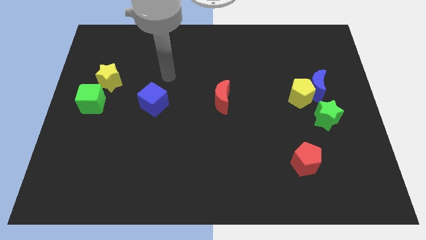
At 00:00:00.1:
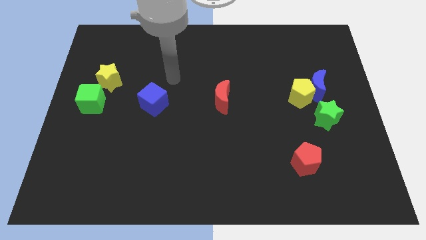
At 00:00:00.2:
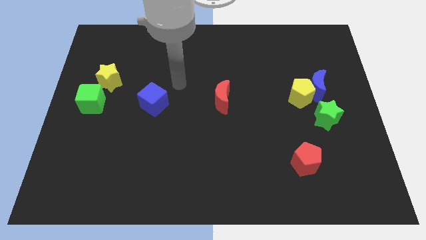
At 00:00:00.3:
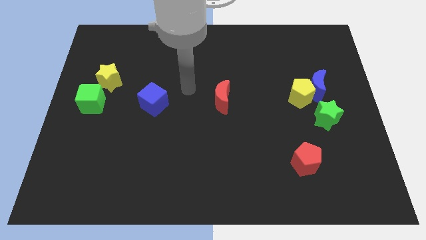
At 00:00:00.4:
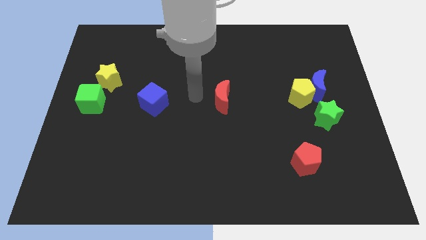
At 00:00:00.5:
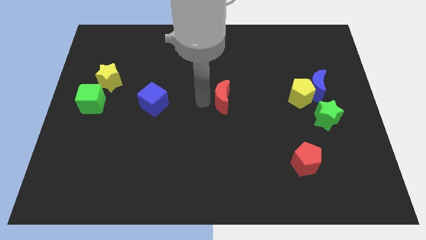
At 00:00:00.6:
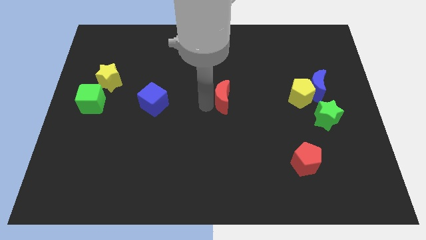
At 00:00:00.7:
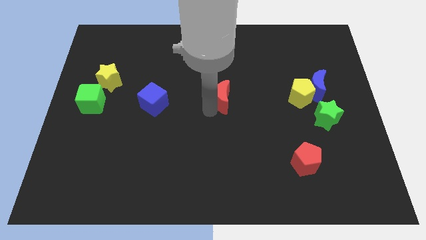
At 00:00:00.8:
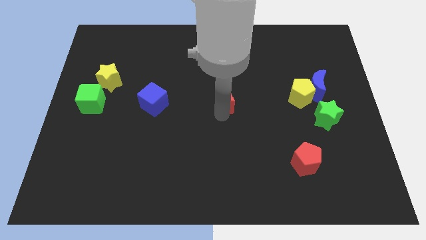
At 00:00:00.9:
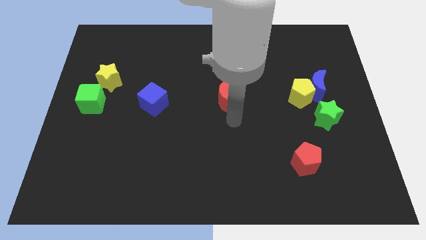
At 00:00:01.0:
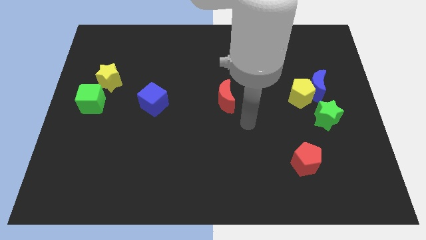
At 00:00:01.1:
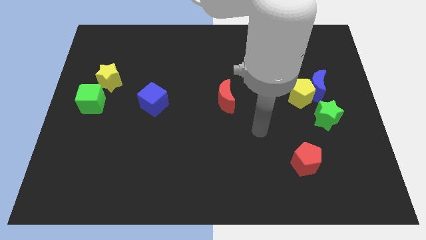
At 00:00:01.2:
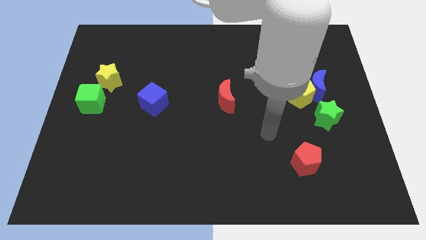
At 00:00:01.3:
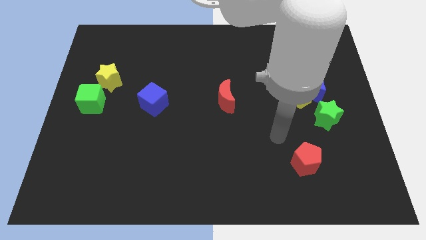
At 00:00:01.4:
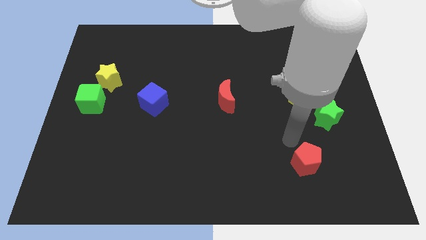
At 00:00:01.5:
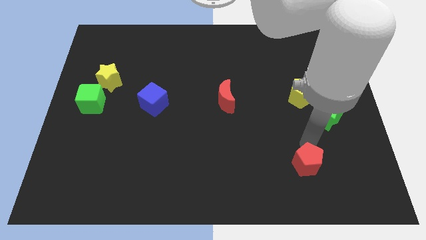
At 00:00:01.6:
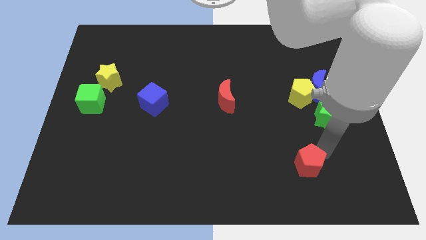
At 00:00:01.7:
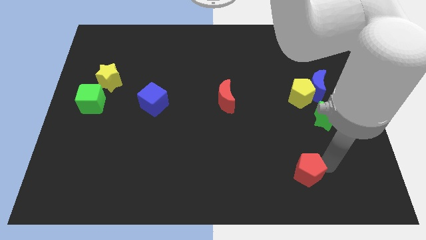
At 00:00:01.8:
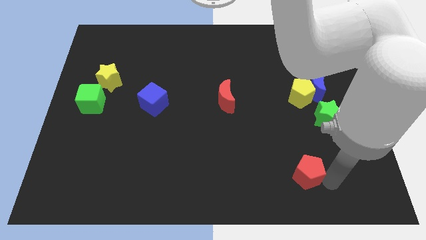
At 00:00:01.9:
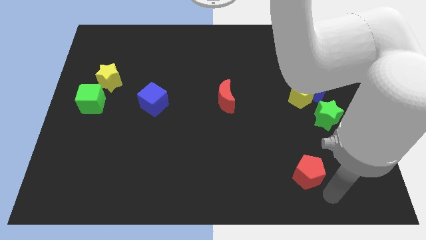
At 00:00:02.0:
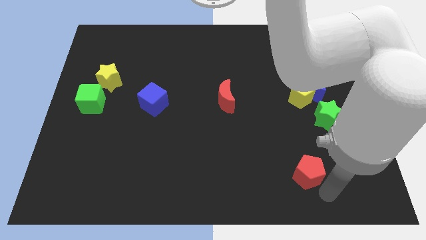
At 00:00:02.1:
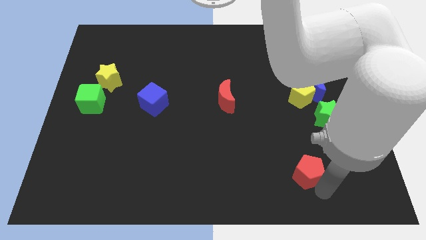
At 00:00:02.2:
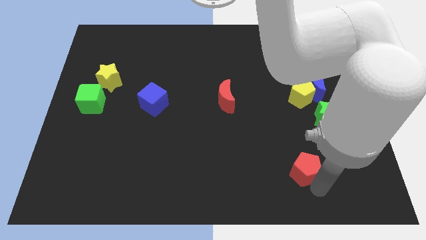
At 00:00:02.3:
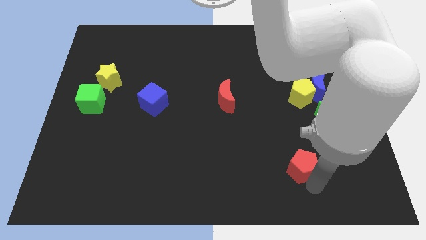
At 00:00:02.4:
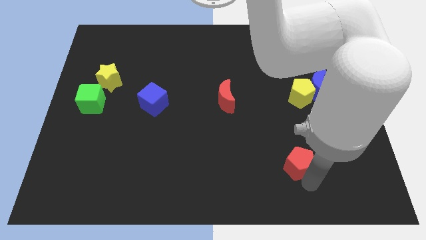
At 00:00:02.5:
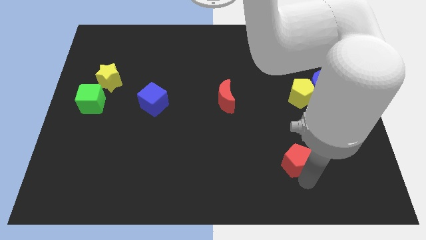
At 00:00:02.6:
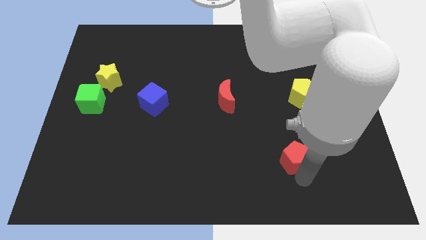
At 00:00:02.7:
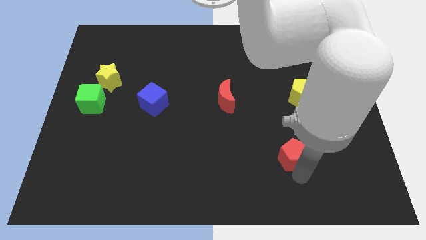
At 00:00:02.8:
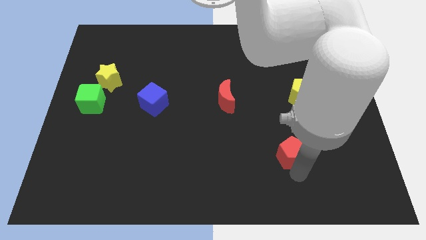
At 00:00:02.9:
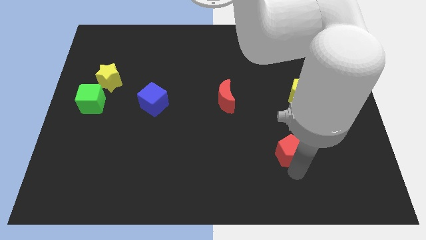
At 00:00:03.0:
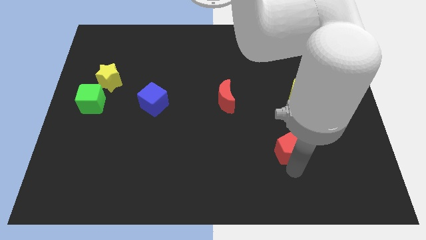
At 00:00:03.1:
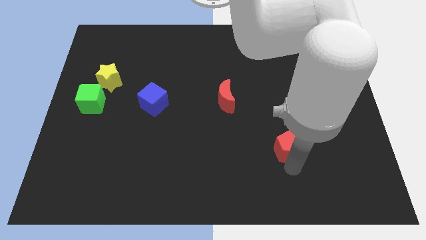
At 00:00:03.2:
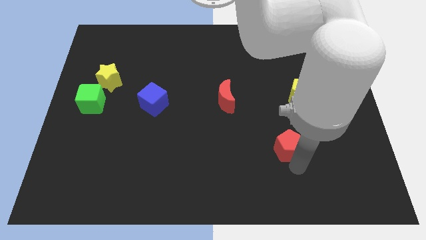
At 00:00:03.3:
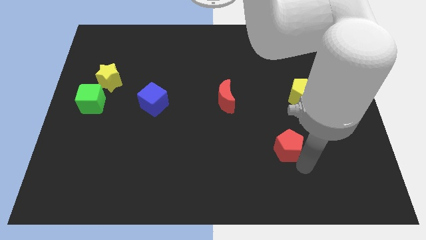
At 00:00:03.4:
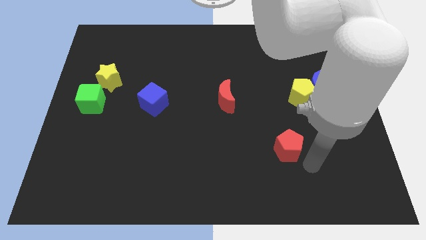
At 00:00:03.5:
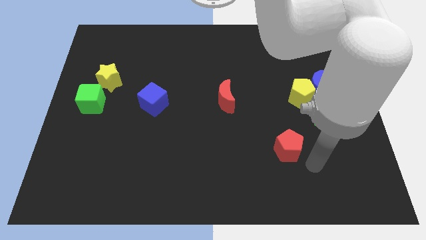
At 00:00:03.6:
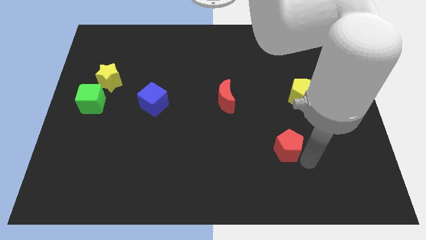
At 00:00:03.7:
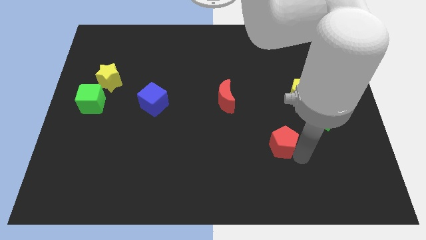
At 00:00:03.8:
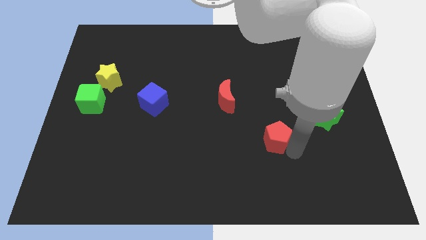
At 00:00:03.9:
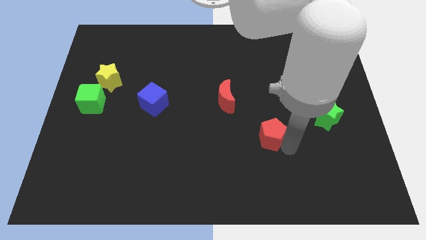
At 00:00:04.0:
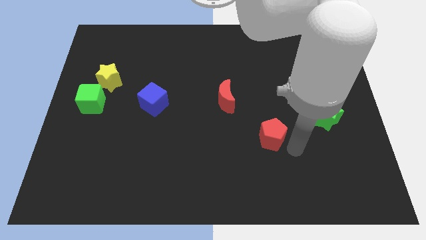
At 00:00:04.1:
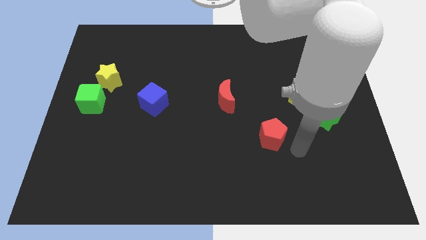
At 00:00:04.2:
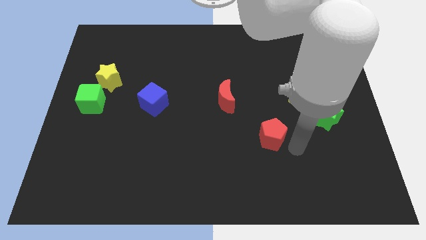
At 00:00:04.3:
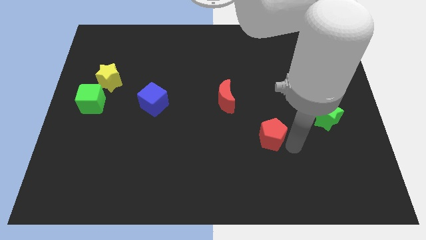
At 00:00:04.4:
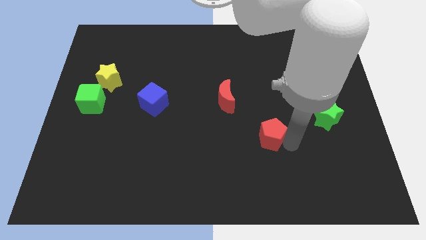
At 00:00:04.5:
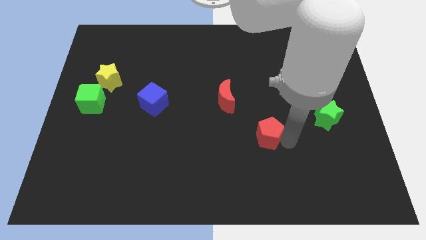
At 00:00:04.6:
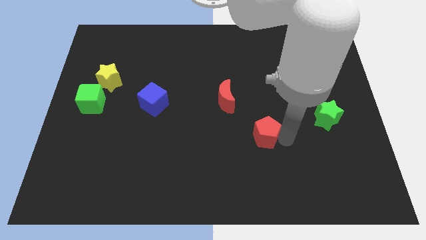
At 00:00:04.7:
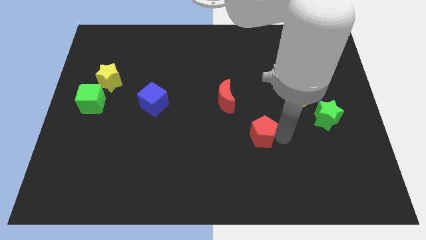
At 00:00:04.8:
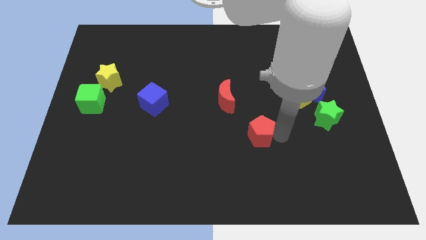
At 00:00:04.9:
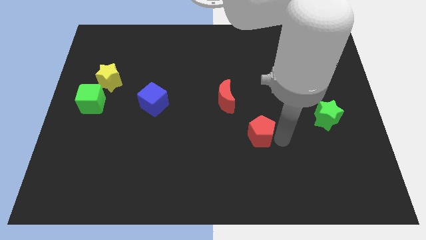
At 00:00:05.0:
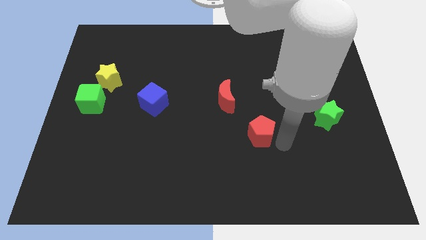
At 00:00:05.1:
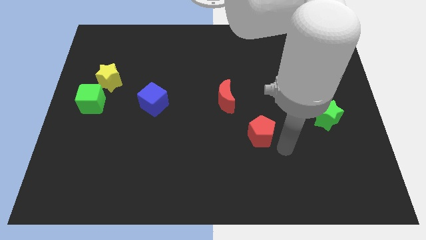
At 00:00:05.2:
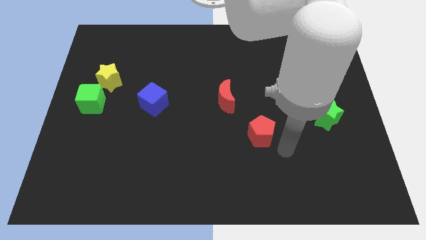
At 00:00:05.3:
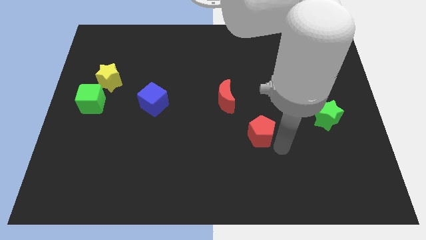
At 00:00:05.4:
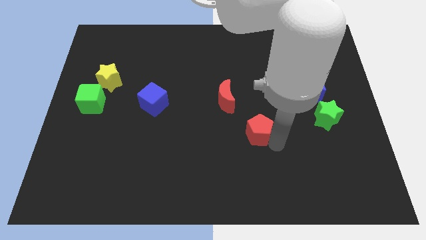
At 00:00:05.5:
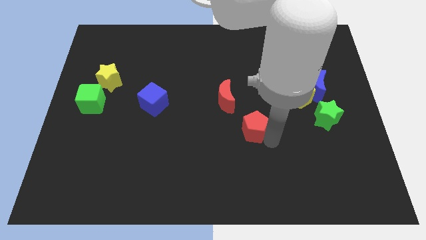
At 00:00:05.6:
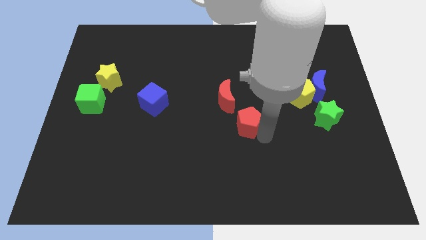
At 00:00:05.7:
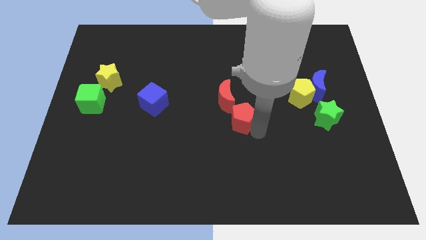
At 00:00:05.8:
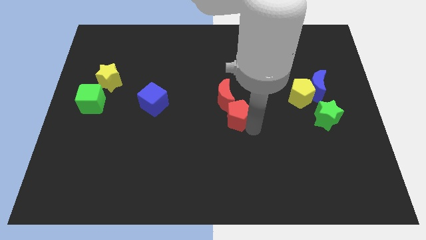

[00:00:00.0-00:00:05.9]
slide the red pentagon next to the red moon

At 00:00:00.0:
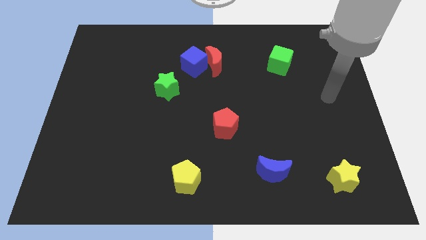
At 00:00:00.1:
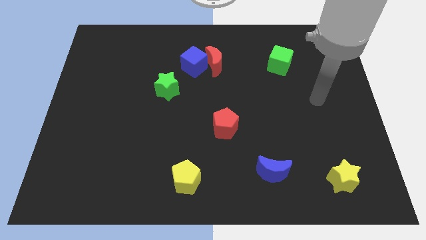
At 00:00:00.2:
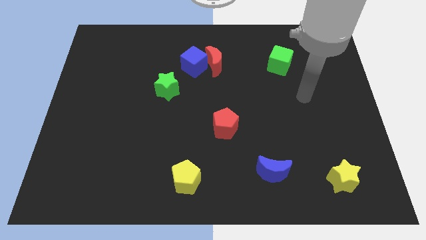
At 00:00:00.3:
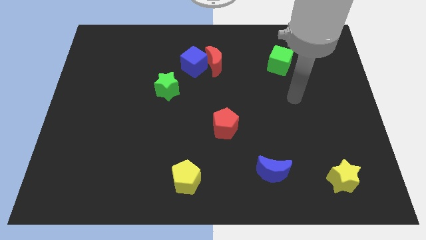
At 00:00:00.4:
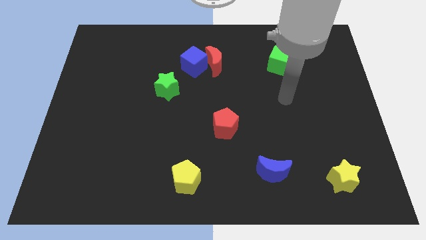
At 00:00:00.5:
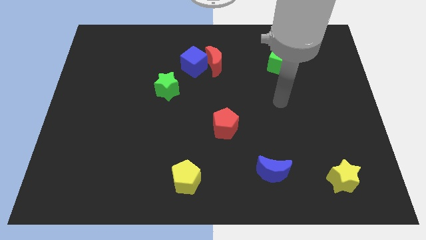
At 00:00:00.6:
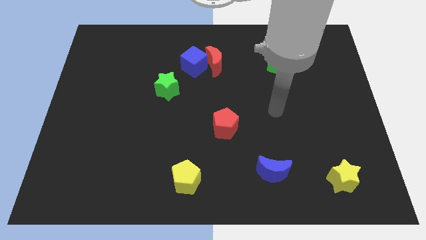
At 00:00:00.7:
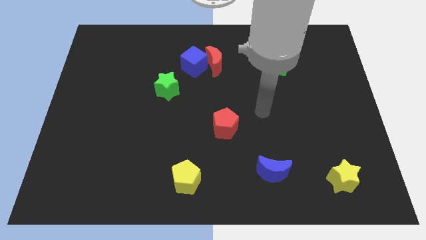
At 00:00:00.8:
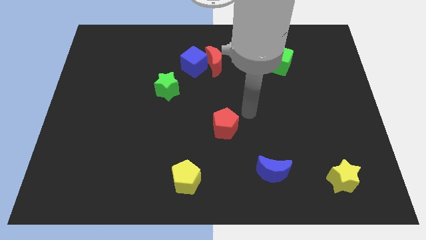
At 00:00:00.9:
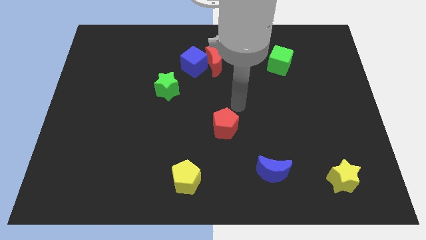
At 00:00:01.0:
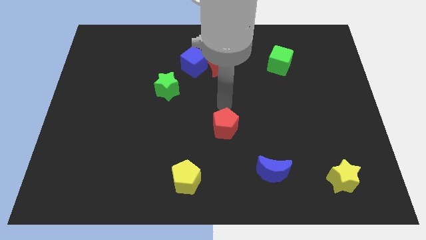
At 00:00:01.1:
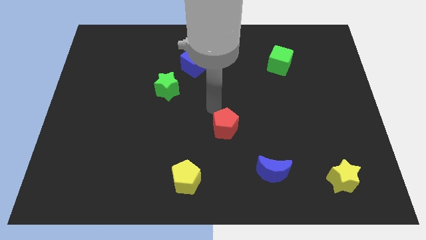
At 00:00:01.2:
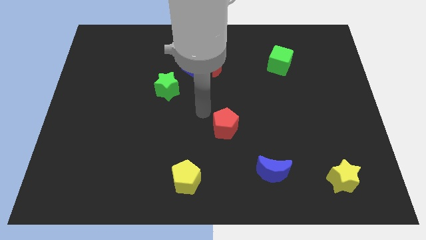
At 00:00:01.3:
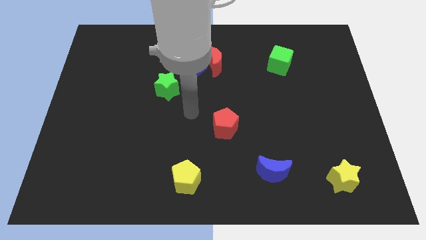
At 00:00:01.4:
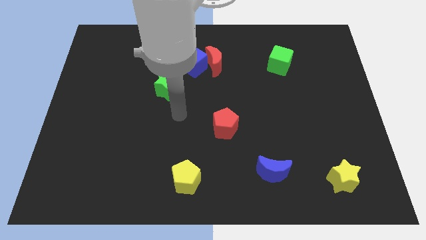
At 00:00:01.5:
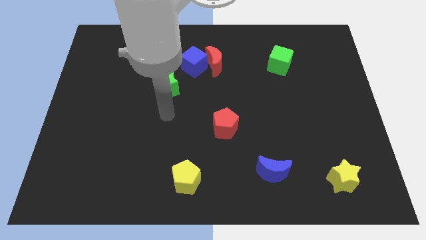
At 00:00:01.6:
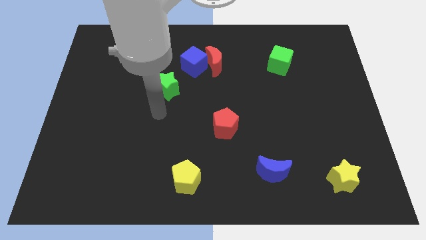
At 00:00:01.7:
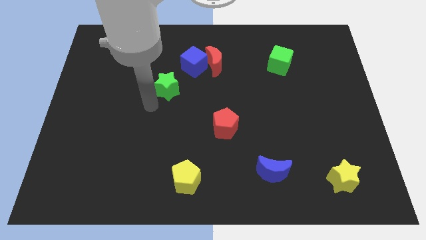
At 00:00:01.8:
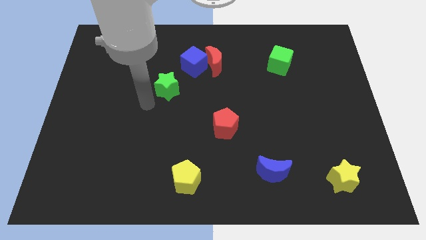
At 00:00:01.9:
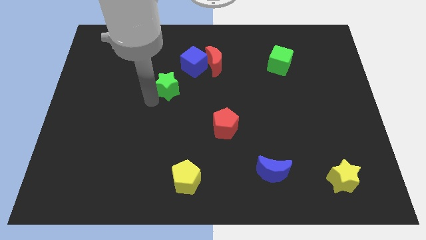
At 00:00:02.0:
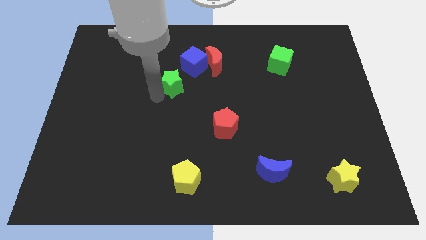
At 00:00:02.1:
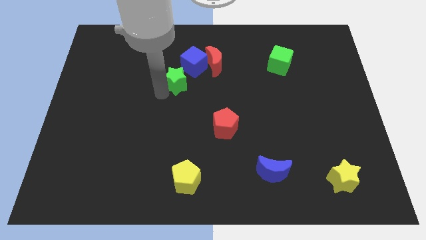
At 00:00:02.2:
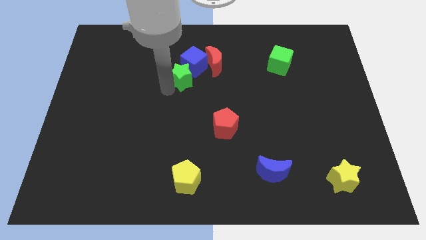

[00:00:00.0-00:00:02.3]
put the green star close to the blue cube
